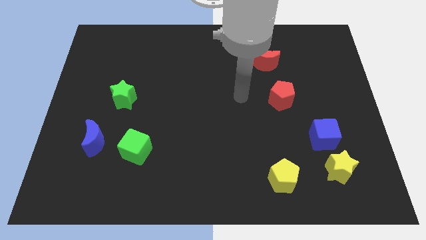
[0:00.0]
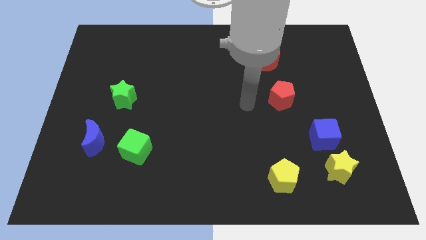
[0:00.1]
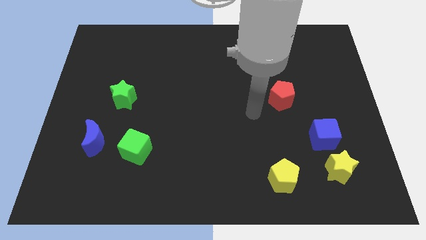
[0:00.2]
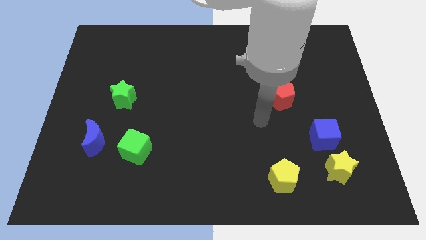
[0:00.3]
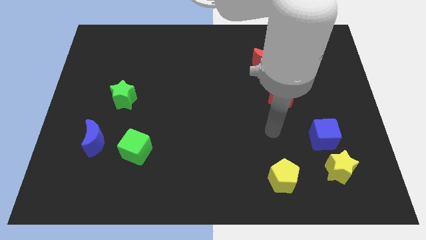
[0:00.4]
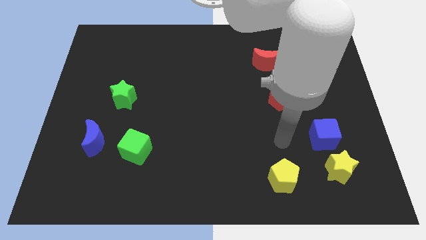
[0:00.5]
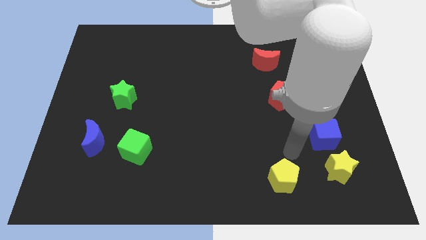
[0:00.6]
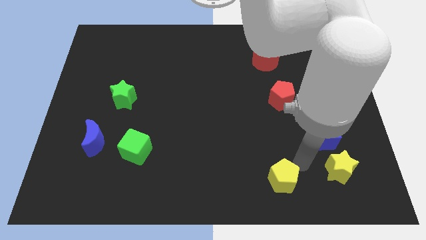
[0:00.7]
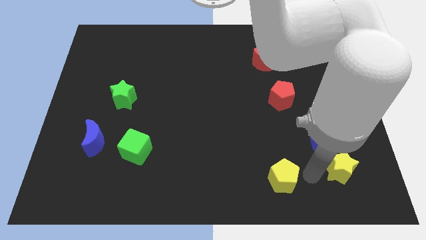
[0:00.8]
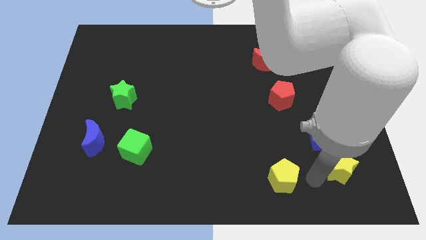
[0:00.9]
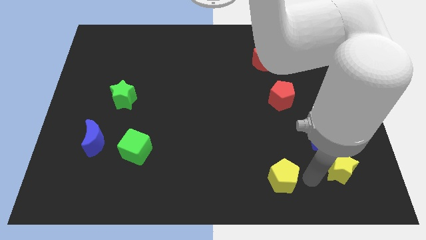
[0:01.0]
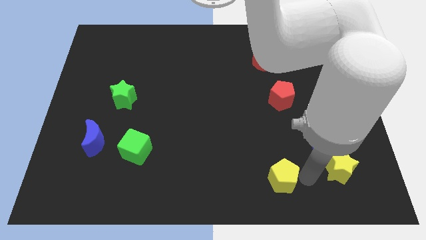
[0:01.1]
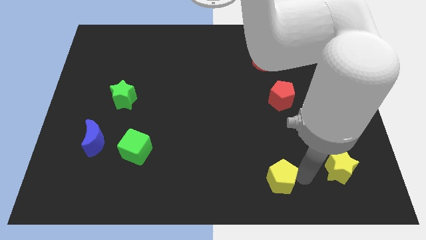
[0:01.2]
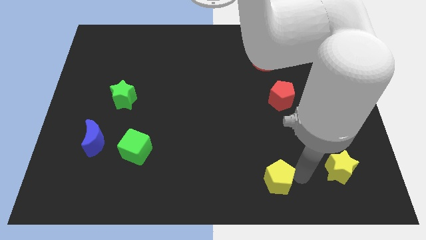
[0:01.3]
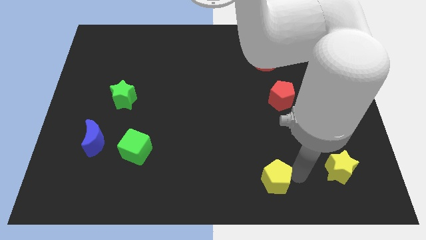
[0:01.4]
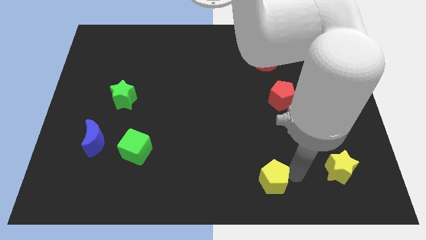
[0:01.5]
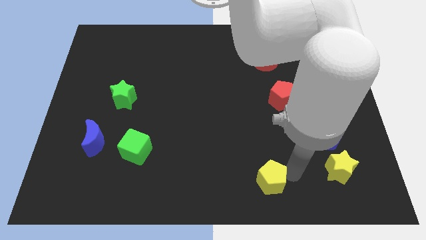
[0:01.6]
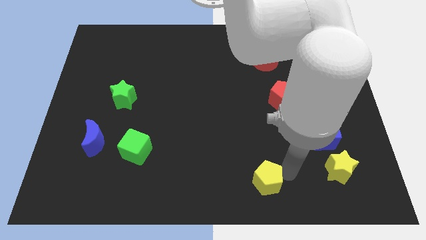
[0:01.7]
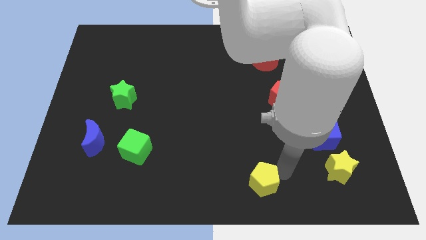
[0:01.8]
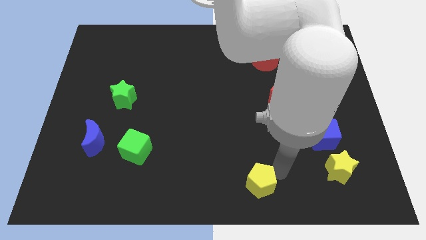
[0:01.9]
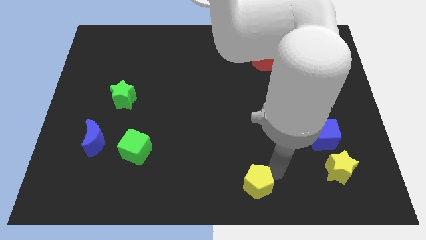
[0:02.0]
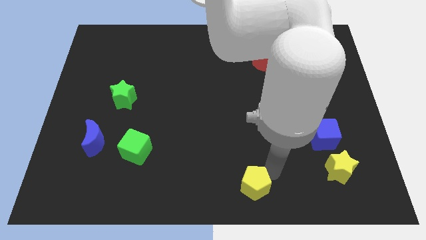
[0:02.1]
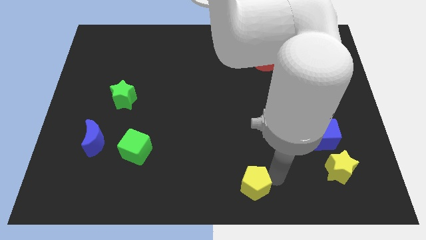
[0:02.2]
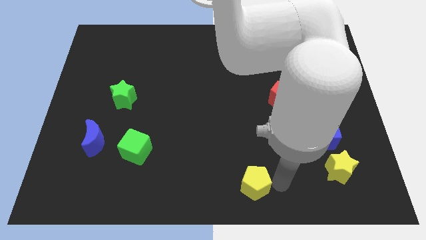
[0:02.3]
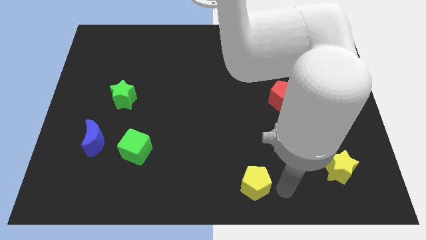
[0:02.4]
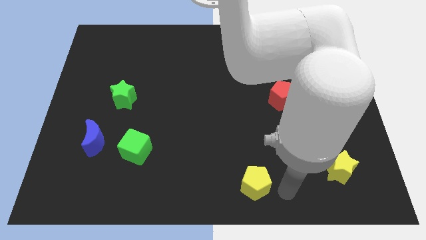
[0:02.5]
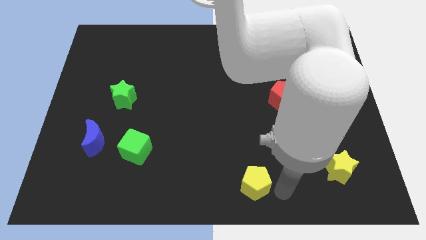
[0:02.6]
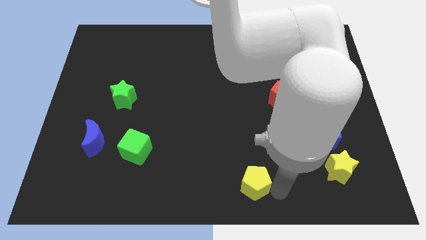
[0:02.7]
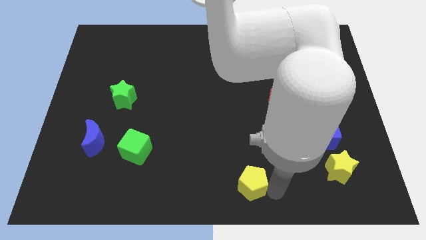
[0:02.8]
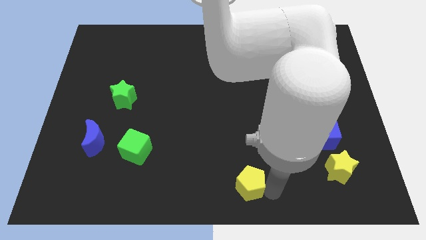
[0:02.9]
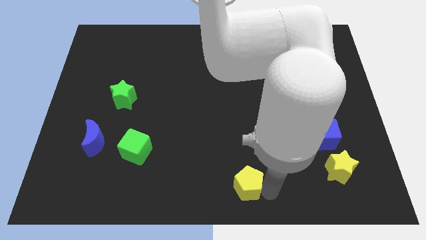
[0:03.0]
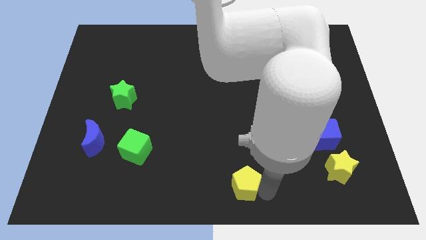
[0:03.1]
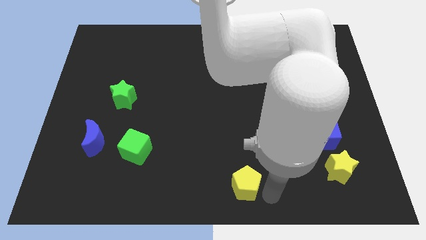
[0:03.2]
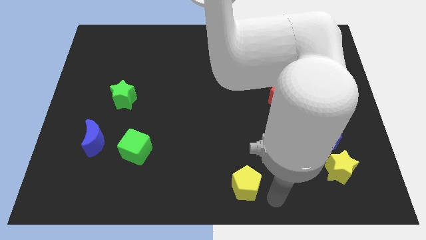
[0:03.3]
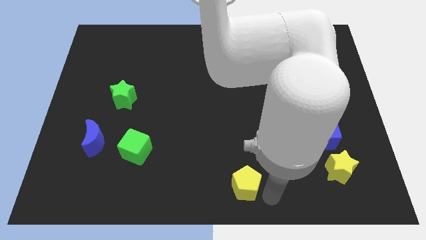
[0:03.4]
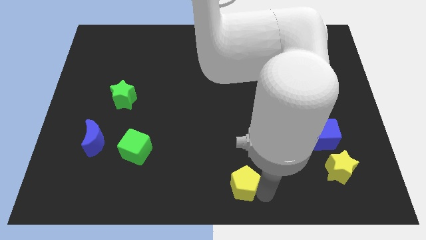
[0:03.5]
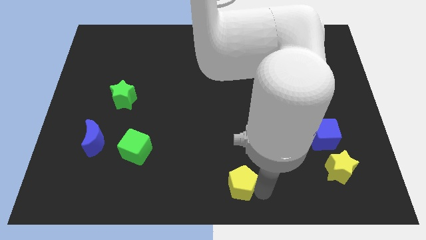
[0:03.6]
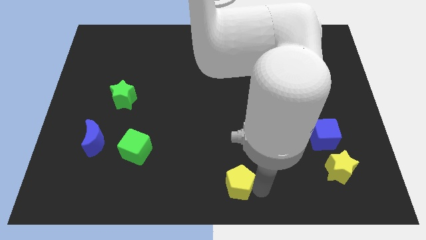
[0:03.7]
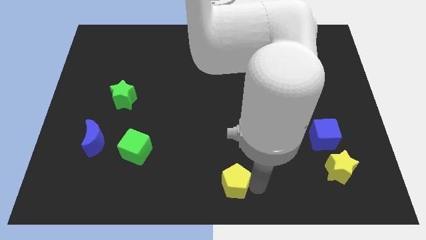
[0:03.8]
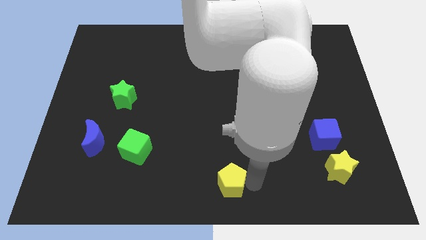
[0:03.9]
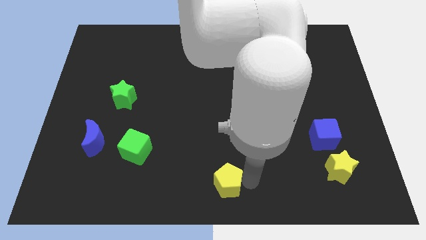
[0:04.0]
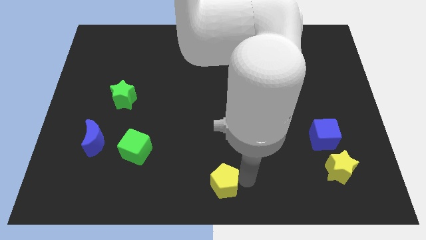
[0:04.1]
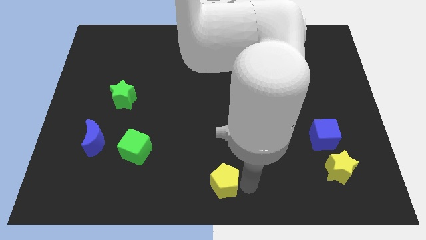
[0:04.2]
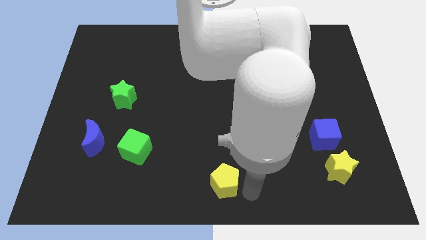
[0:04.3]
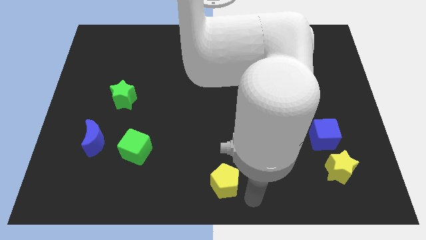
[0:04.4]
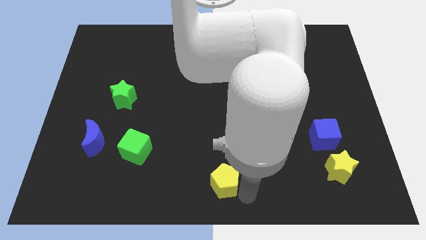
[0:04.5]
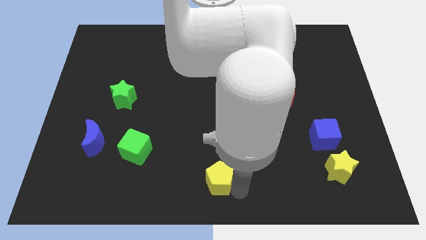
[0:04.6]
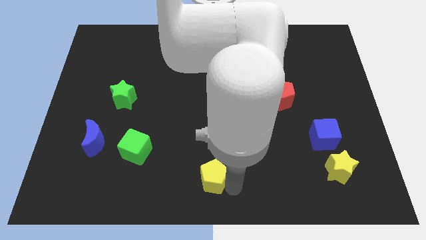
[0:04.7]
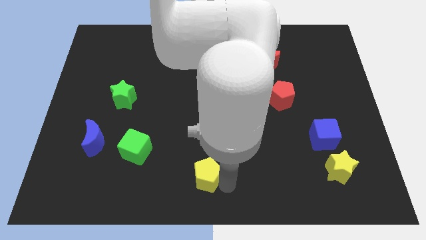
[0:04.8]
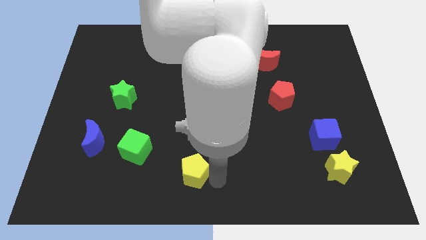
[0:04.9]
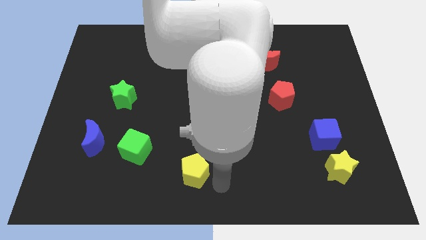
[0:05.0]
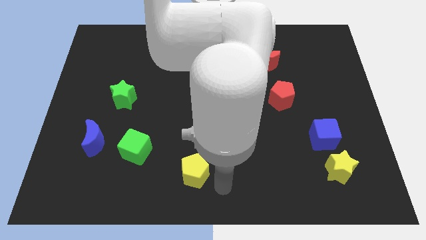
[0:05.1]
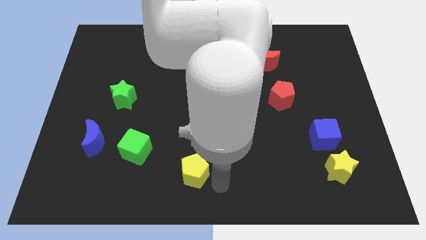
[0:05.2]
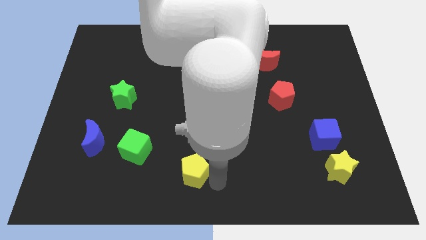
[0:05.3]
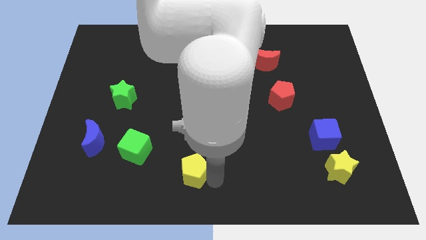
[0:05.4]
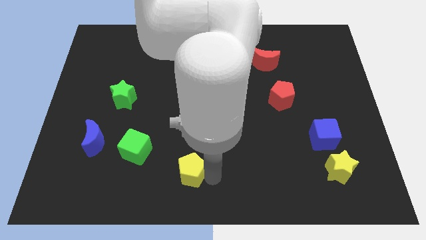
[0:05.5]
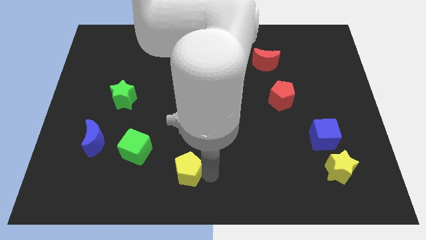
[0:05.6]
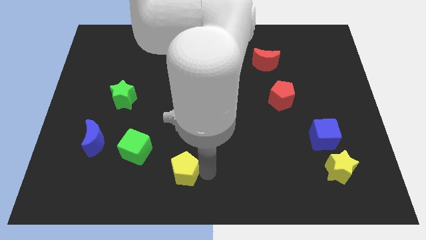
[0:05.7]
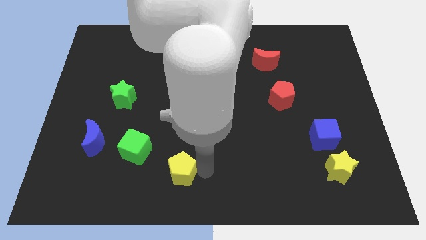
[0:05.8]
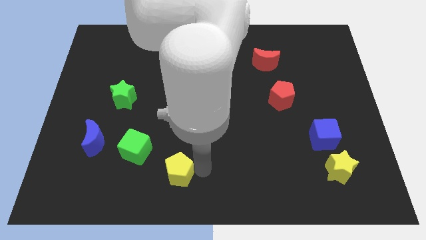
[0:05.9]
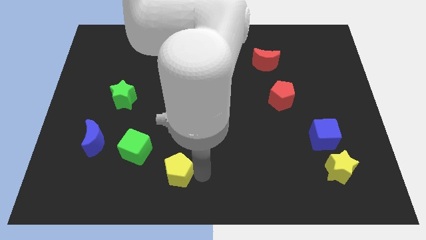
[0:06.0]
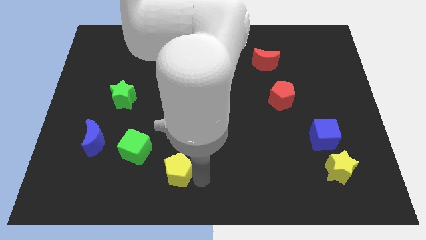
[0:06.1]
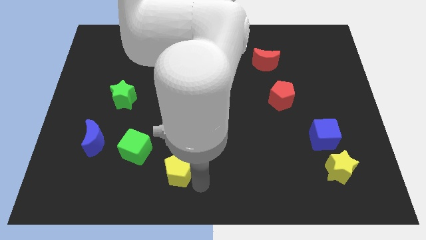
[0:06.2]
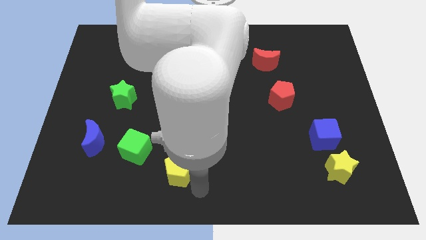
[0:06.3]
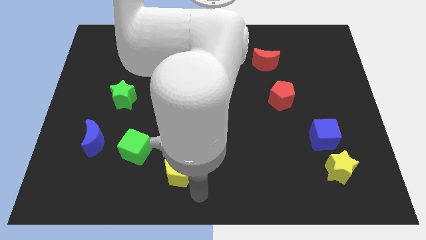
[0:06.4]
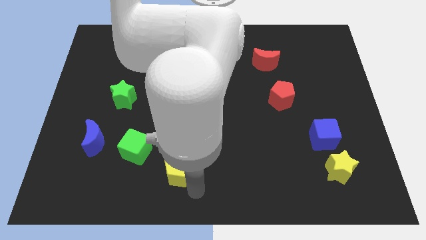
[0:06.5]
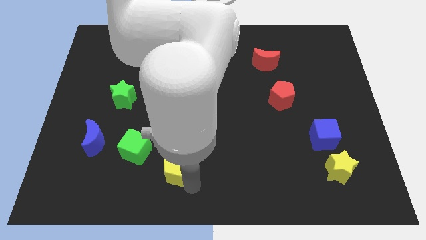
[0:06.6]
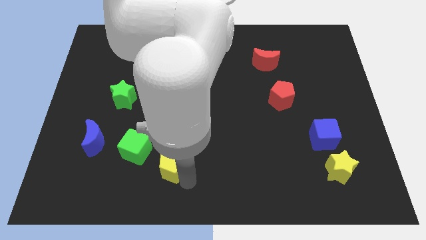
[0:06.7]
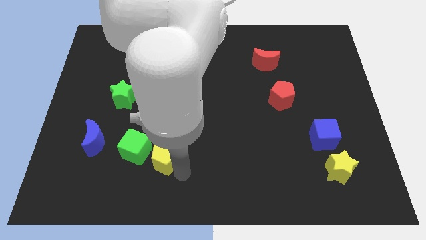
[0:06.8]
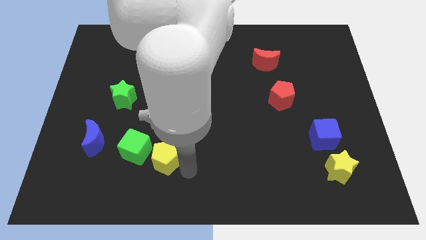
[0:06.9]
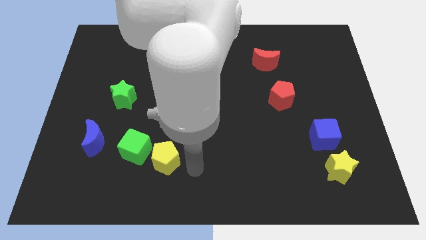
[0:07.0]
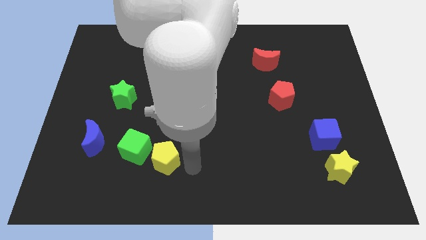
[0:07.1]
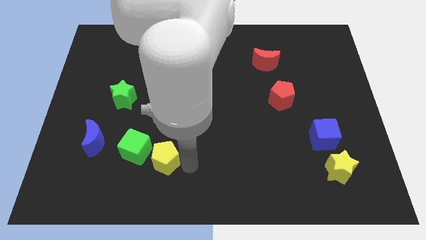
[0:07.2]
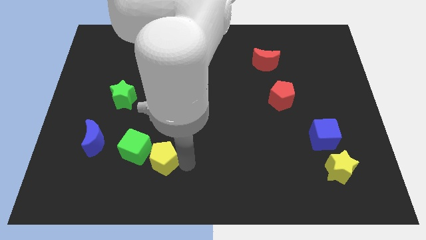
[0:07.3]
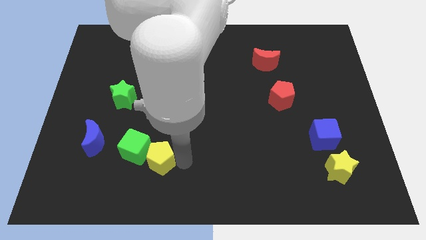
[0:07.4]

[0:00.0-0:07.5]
slide the yellow pentagon to the green cube
